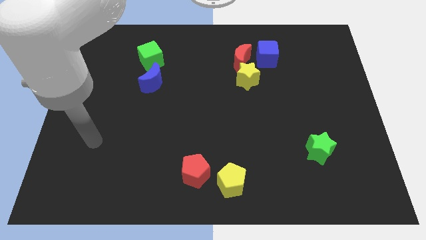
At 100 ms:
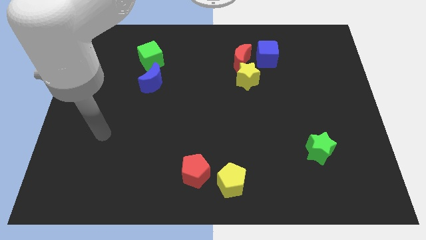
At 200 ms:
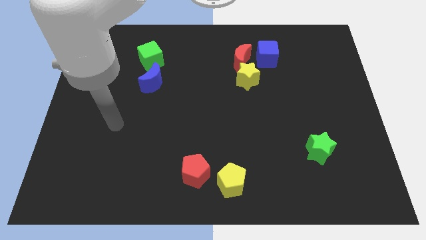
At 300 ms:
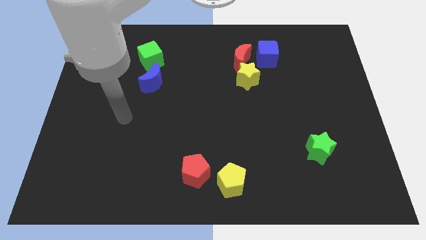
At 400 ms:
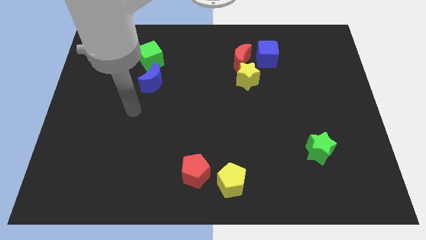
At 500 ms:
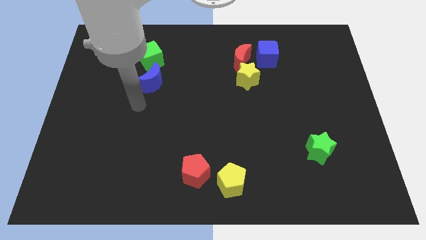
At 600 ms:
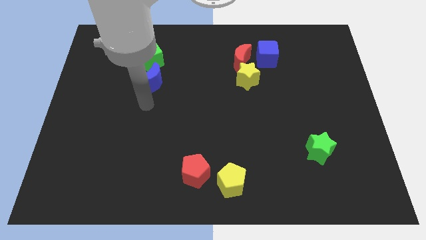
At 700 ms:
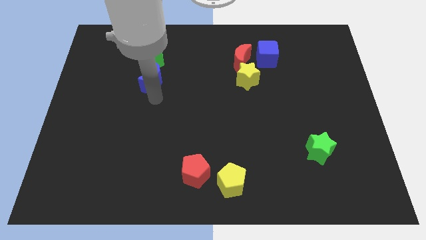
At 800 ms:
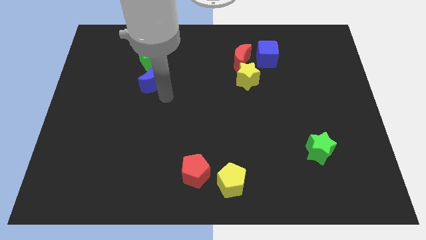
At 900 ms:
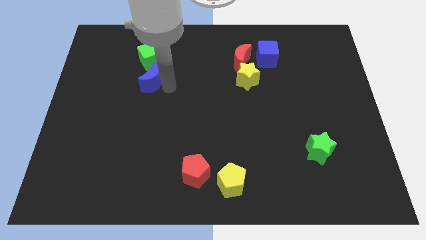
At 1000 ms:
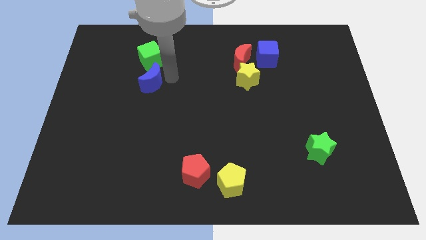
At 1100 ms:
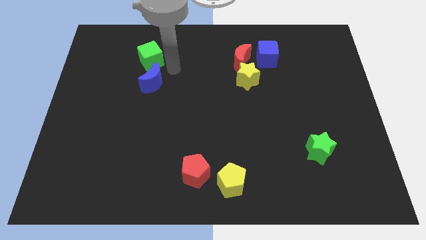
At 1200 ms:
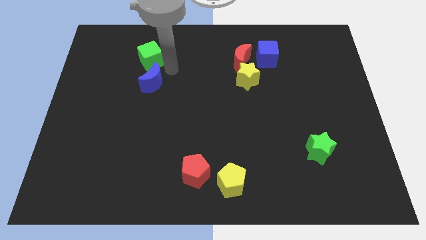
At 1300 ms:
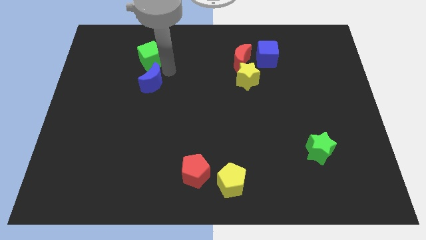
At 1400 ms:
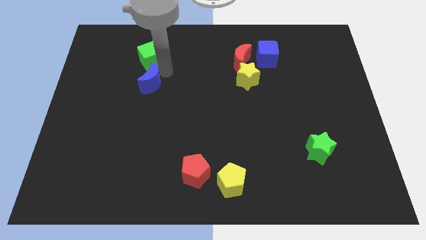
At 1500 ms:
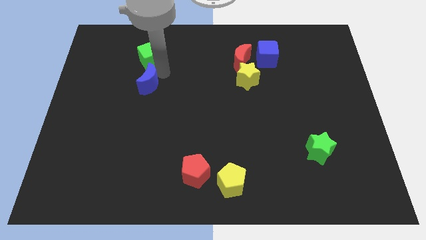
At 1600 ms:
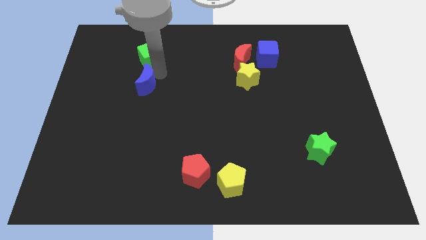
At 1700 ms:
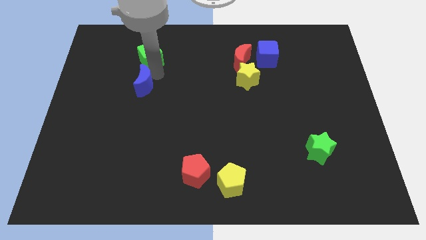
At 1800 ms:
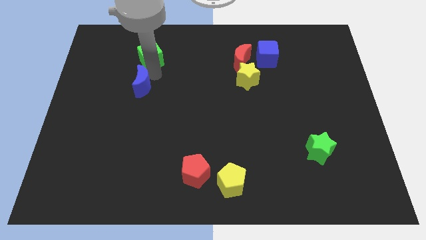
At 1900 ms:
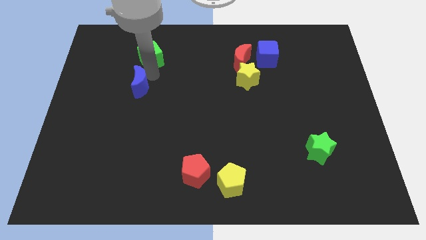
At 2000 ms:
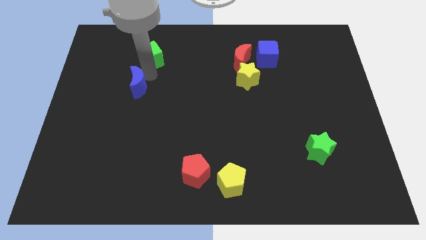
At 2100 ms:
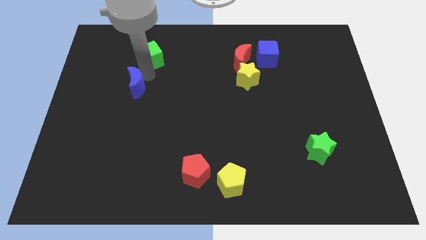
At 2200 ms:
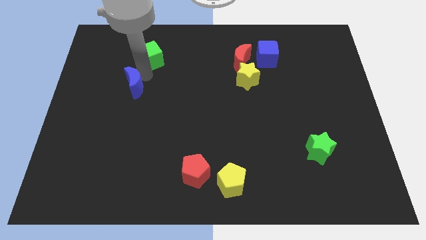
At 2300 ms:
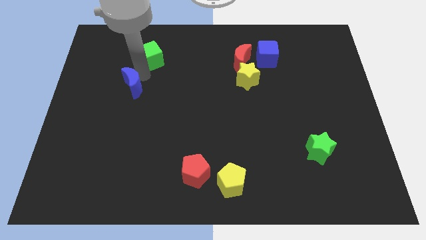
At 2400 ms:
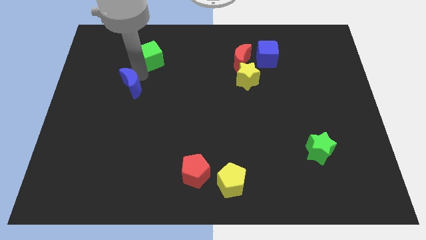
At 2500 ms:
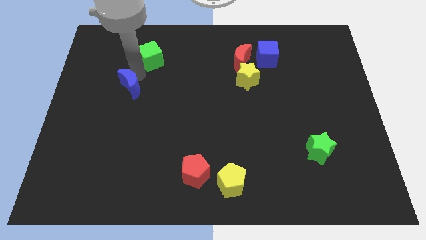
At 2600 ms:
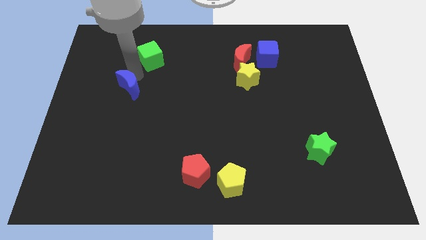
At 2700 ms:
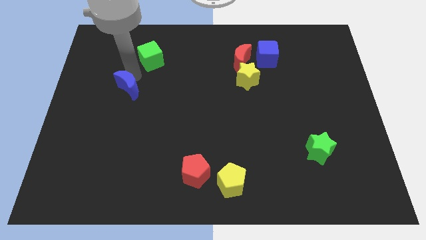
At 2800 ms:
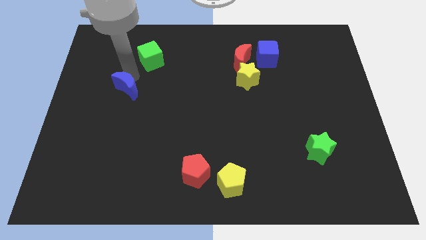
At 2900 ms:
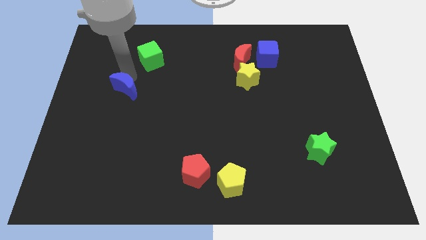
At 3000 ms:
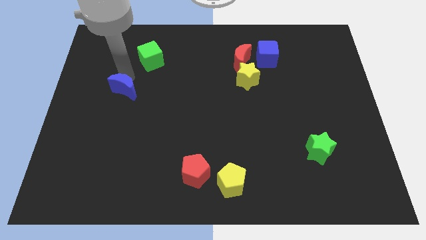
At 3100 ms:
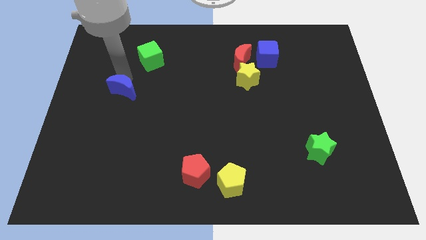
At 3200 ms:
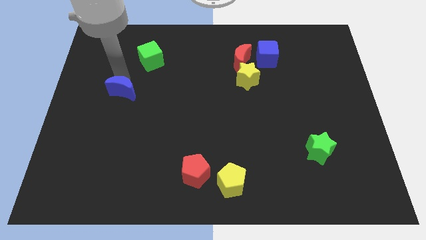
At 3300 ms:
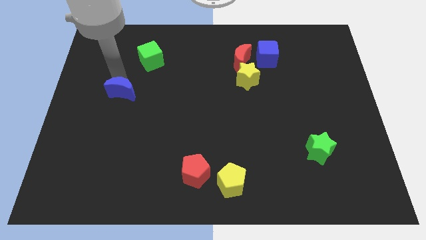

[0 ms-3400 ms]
move the blue moon diagonally down and to the left a little bit

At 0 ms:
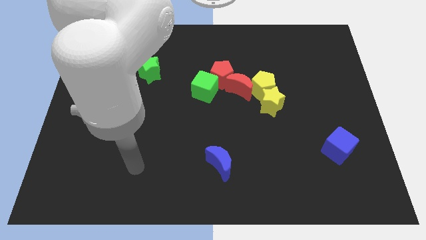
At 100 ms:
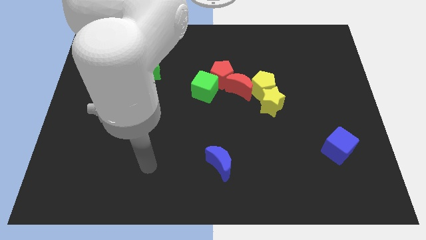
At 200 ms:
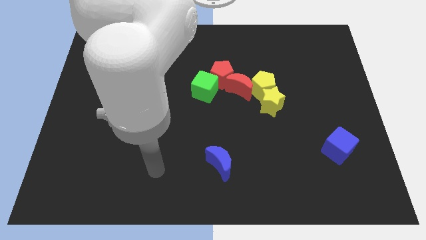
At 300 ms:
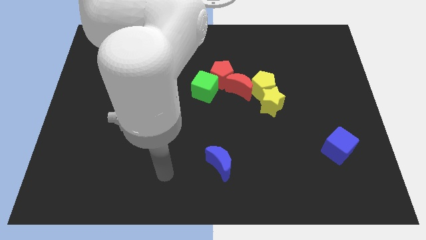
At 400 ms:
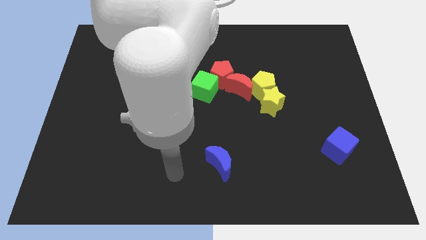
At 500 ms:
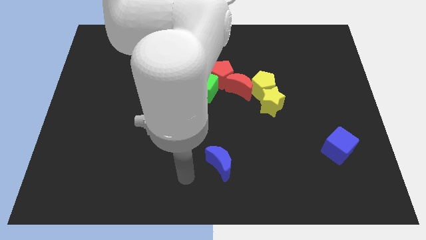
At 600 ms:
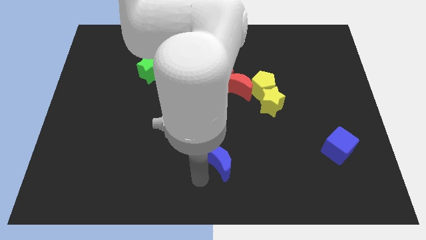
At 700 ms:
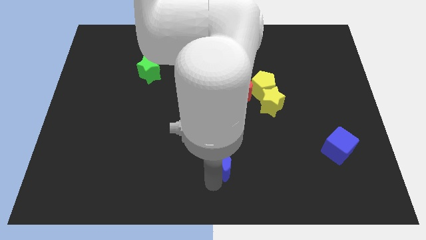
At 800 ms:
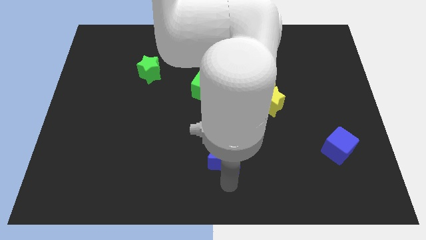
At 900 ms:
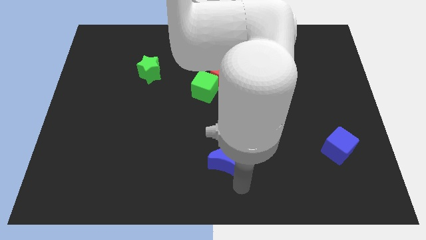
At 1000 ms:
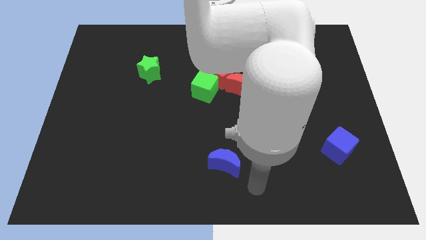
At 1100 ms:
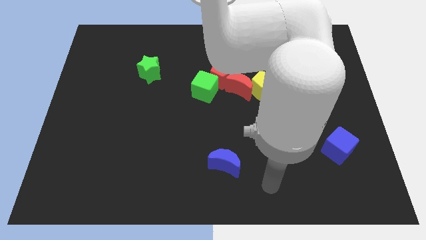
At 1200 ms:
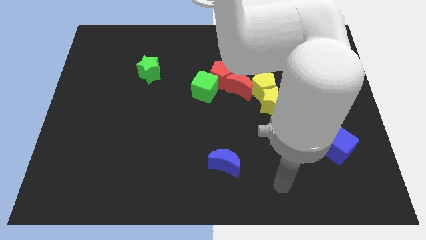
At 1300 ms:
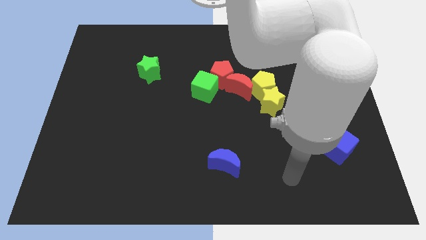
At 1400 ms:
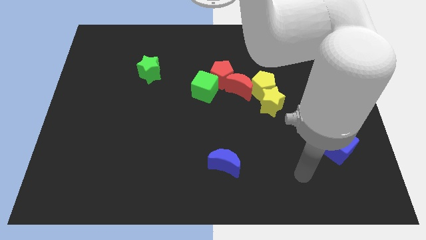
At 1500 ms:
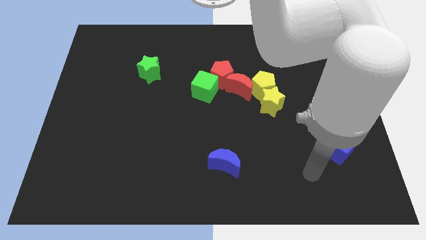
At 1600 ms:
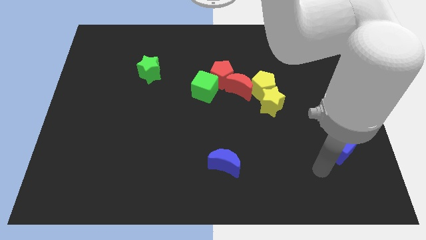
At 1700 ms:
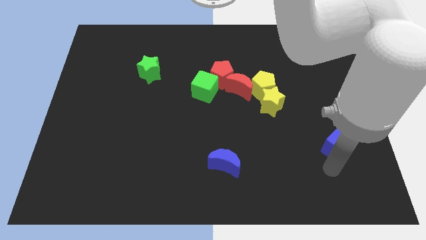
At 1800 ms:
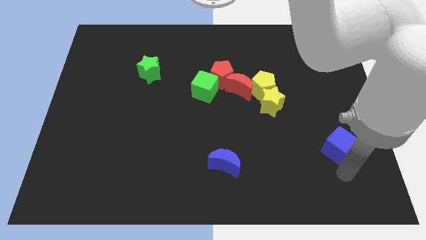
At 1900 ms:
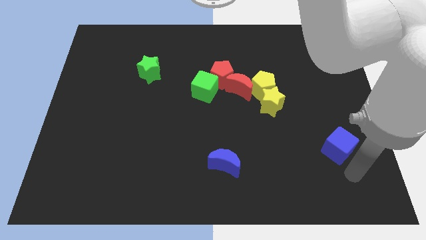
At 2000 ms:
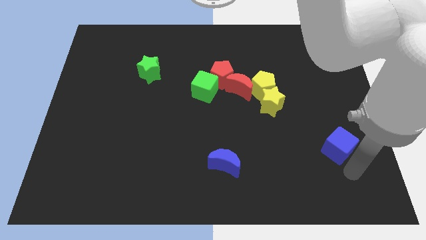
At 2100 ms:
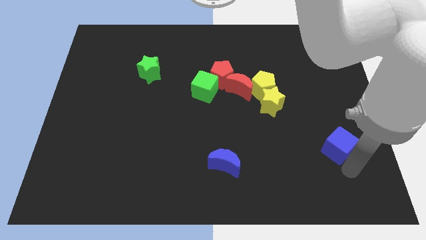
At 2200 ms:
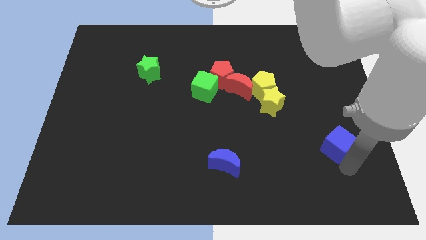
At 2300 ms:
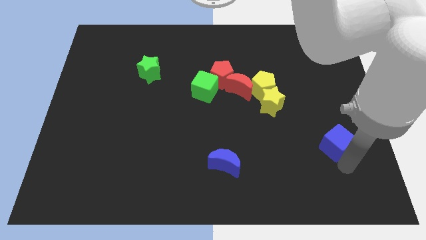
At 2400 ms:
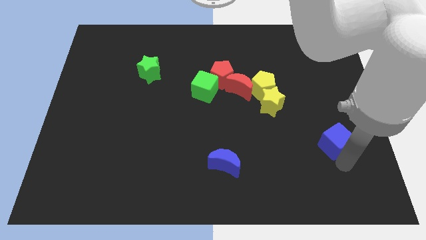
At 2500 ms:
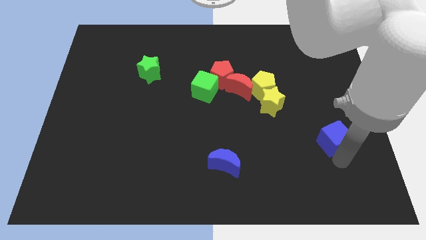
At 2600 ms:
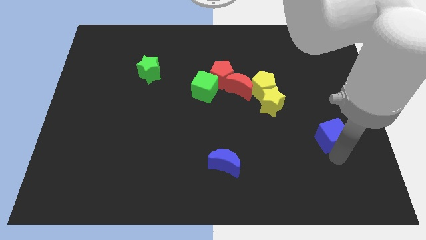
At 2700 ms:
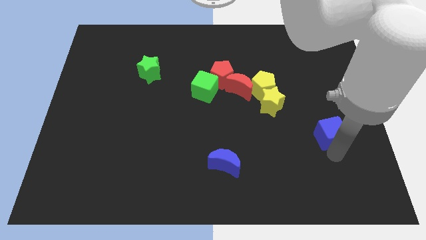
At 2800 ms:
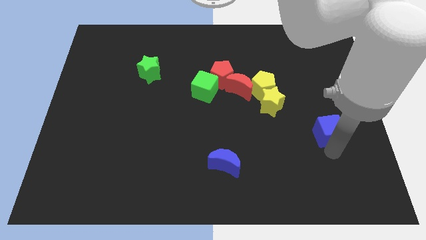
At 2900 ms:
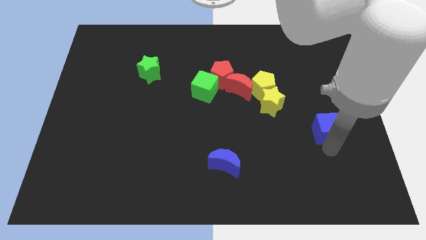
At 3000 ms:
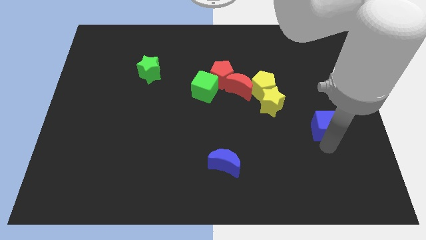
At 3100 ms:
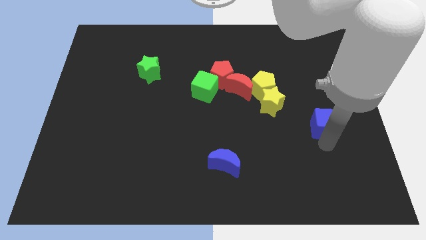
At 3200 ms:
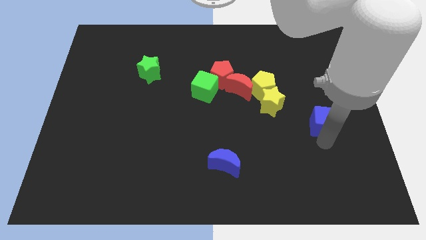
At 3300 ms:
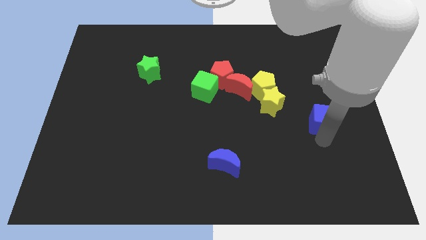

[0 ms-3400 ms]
slightly move the blue cube up

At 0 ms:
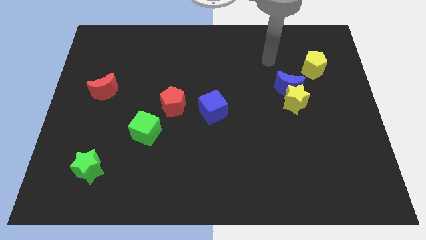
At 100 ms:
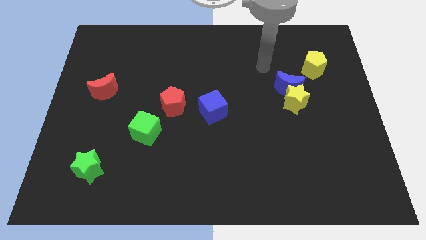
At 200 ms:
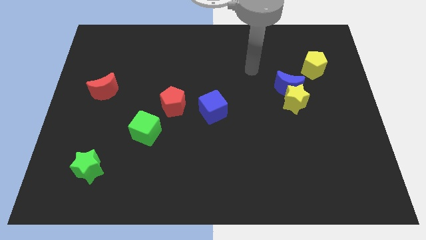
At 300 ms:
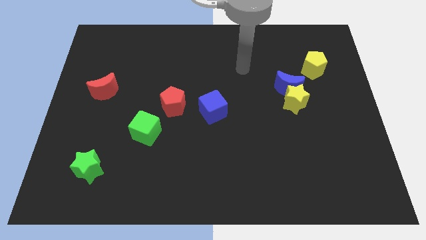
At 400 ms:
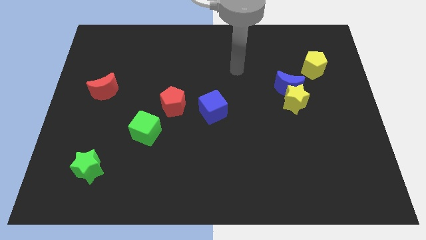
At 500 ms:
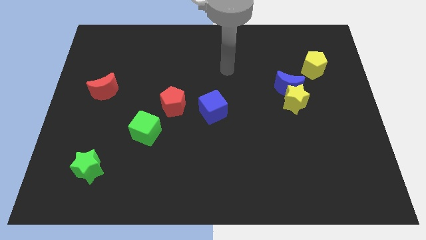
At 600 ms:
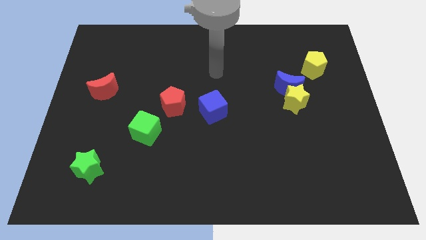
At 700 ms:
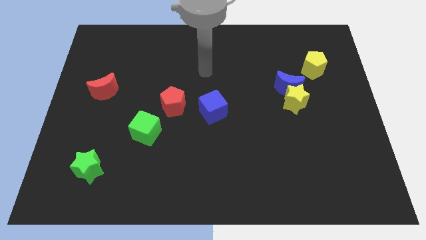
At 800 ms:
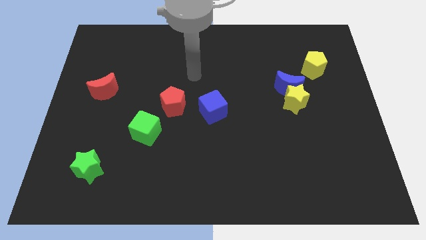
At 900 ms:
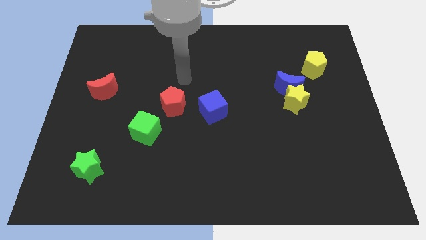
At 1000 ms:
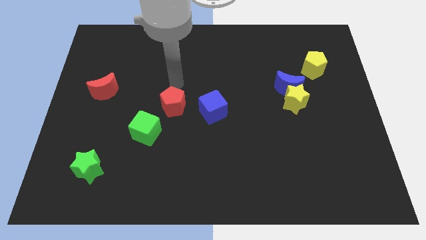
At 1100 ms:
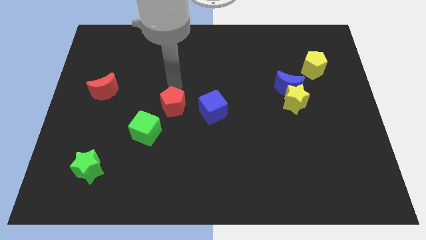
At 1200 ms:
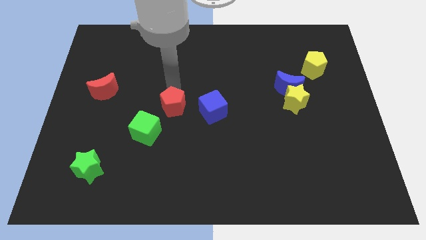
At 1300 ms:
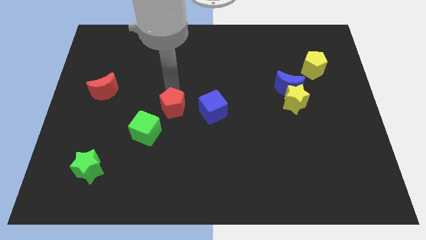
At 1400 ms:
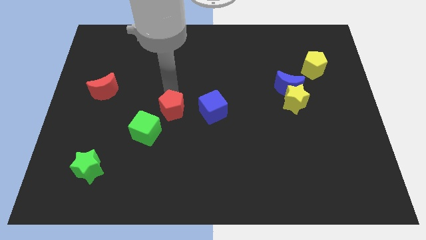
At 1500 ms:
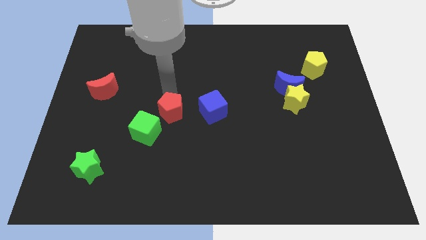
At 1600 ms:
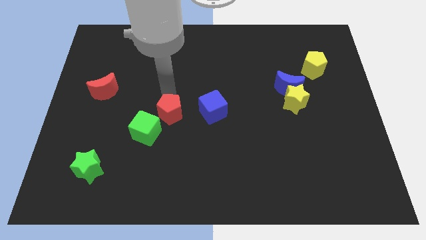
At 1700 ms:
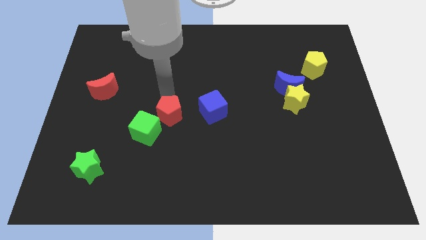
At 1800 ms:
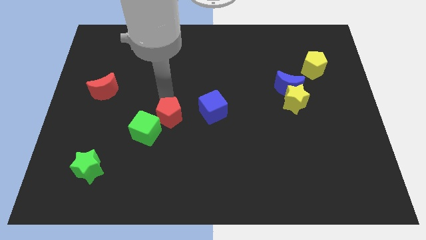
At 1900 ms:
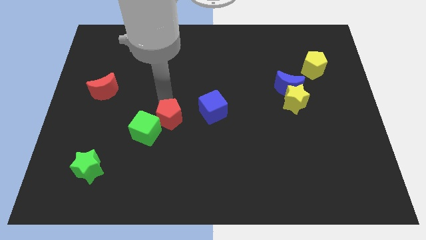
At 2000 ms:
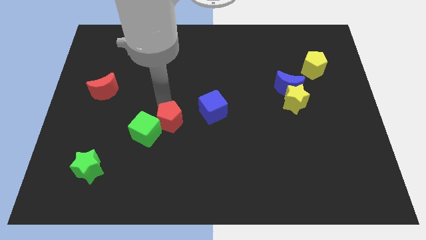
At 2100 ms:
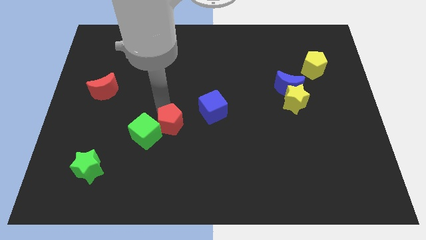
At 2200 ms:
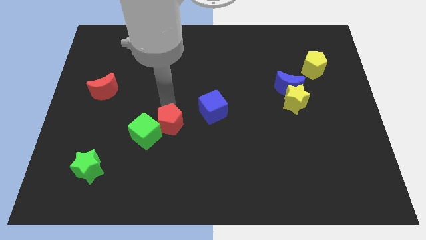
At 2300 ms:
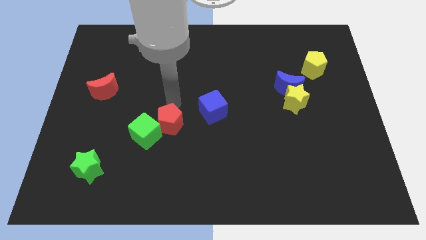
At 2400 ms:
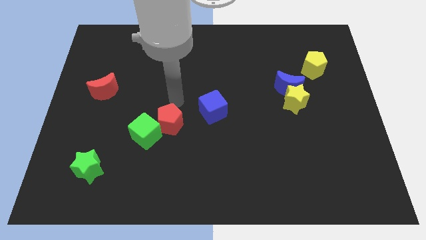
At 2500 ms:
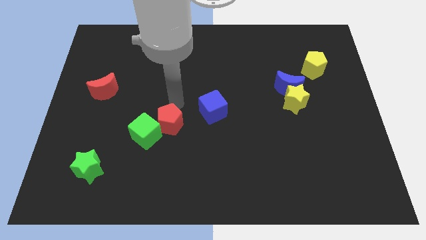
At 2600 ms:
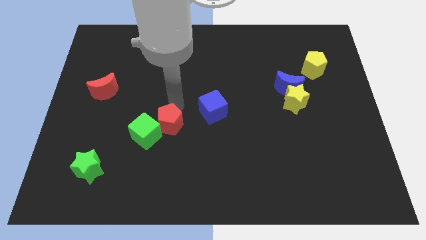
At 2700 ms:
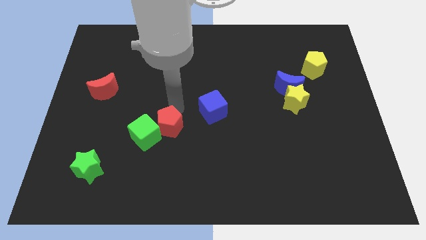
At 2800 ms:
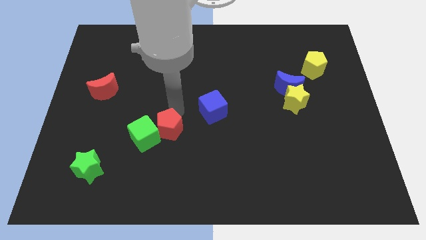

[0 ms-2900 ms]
slightly push the red pentagon down
